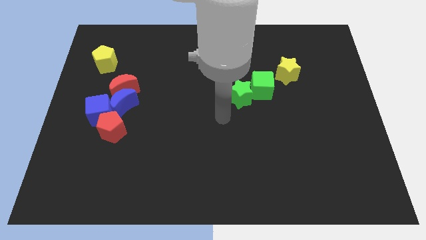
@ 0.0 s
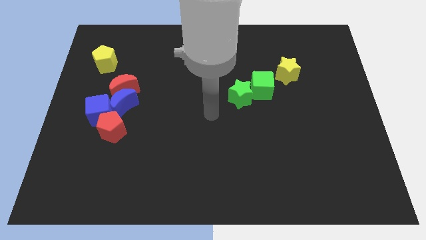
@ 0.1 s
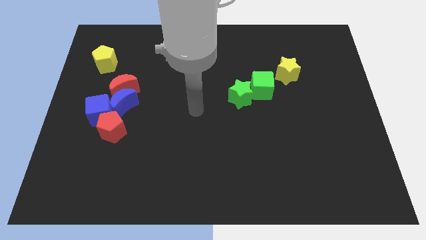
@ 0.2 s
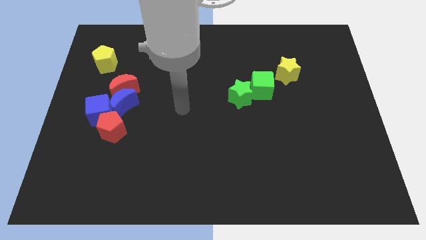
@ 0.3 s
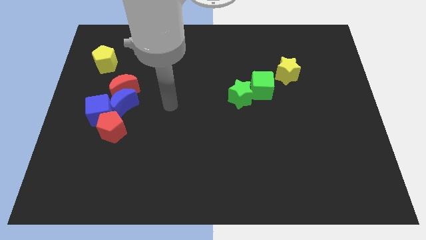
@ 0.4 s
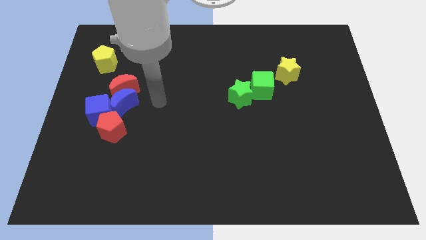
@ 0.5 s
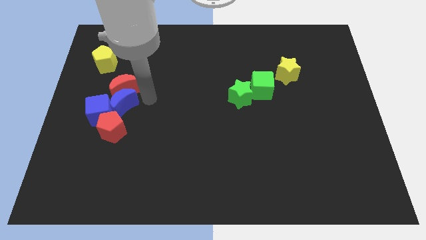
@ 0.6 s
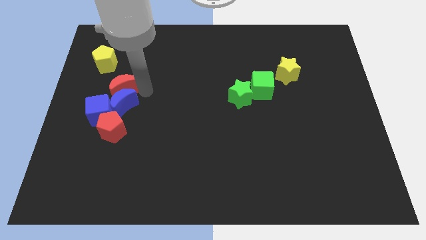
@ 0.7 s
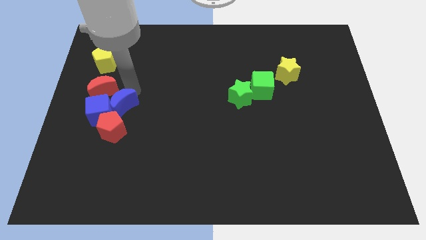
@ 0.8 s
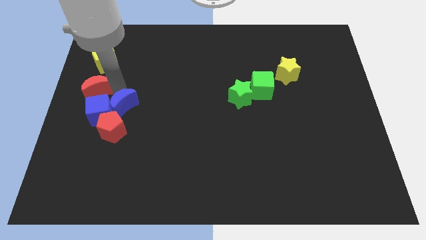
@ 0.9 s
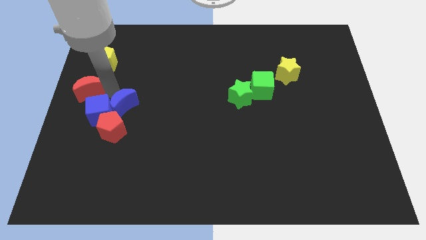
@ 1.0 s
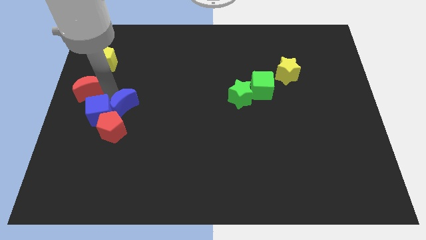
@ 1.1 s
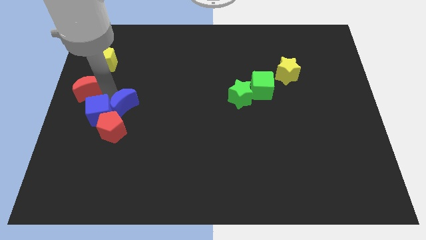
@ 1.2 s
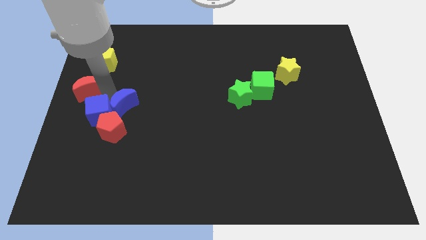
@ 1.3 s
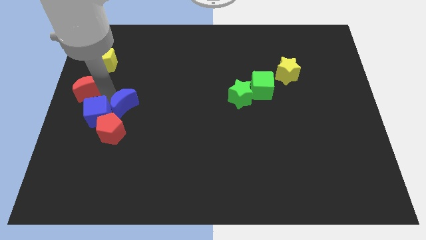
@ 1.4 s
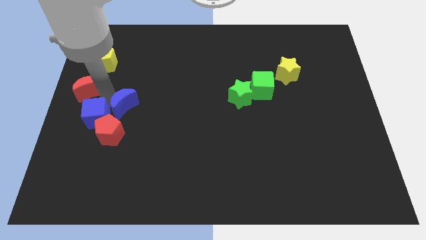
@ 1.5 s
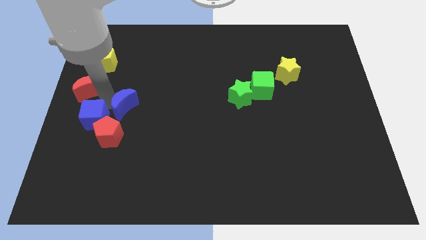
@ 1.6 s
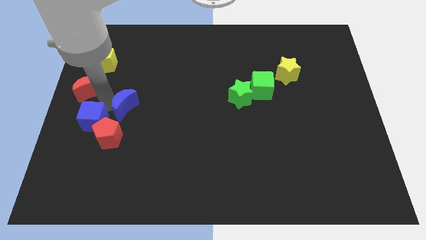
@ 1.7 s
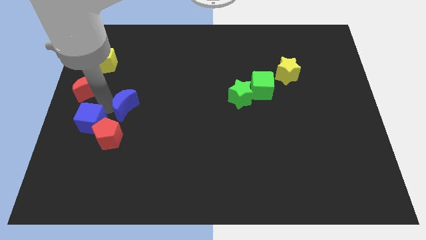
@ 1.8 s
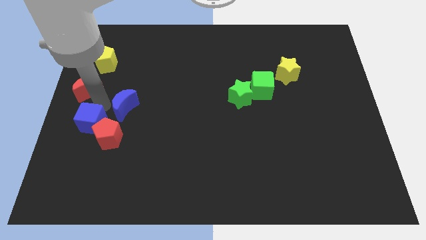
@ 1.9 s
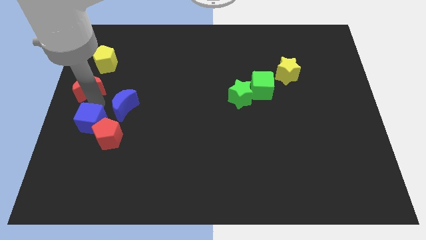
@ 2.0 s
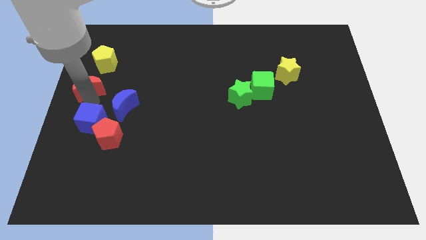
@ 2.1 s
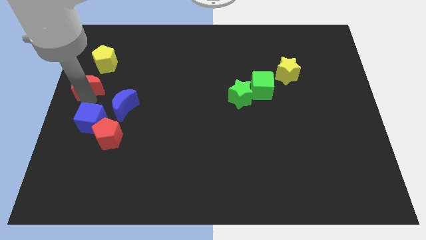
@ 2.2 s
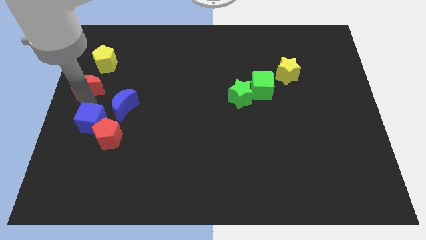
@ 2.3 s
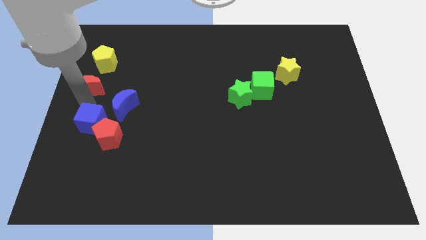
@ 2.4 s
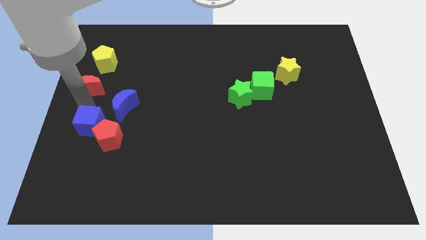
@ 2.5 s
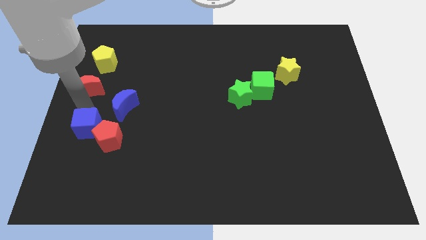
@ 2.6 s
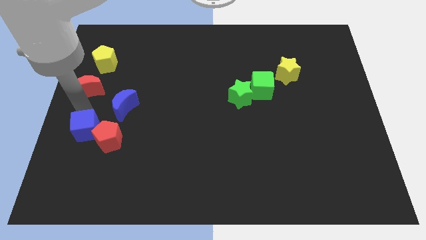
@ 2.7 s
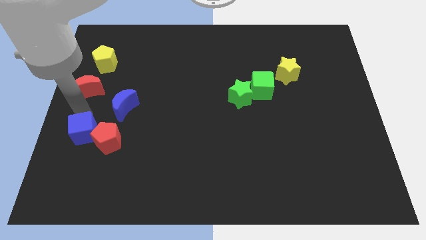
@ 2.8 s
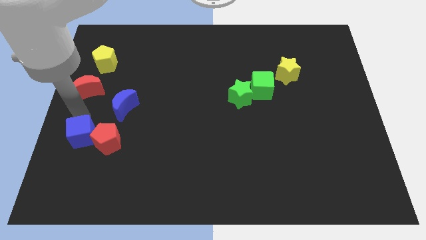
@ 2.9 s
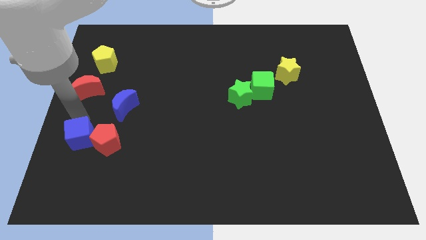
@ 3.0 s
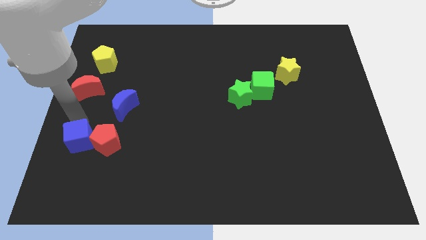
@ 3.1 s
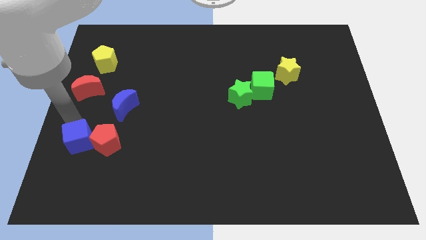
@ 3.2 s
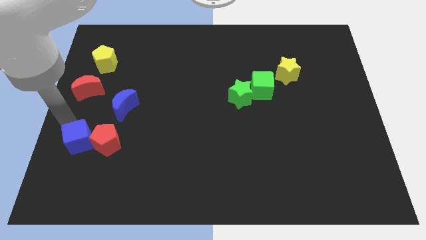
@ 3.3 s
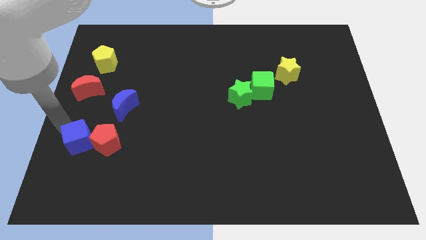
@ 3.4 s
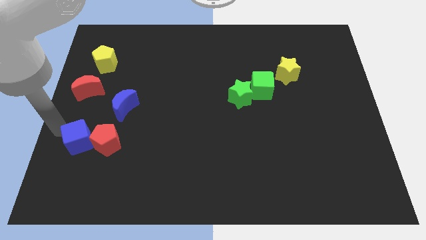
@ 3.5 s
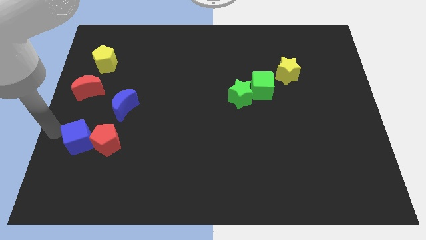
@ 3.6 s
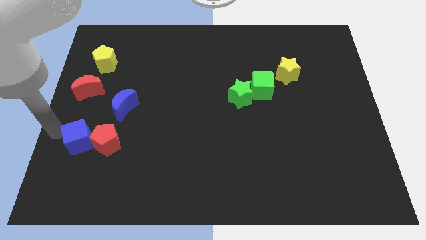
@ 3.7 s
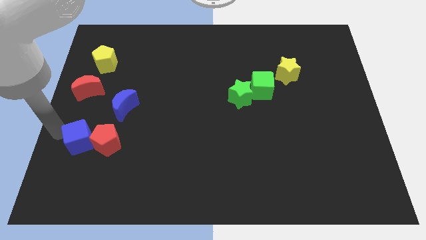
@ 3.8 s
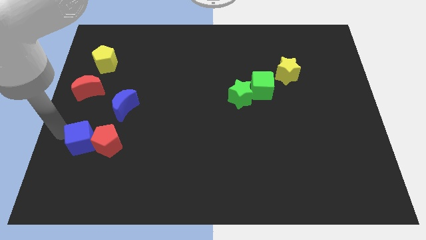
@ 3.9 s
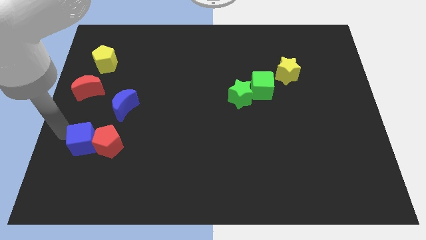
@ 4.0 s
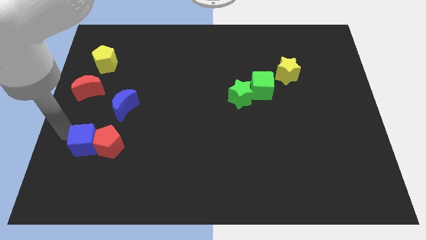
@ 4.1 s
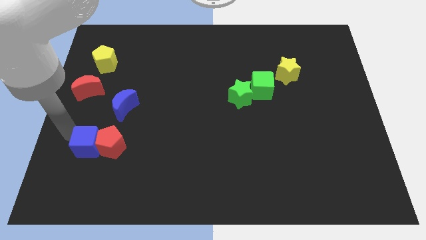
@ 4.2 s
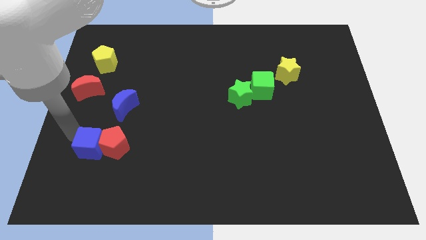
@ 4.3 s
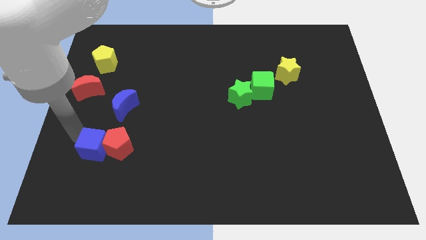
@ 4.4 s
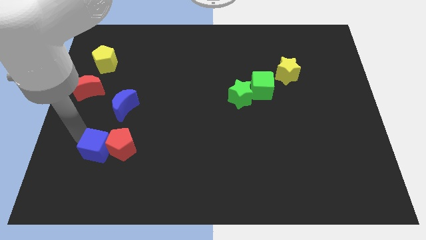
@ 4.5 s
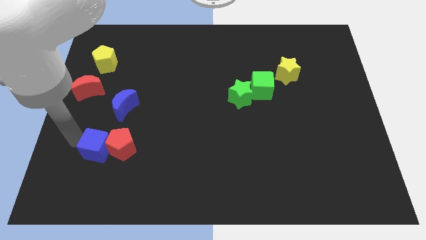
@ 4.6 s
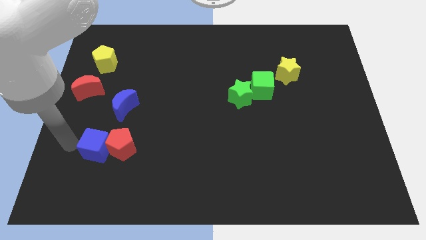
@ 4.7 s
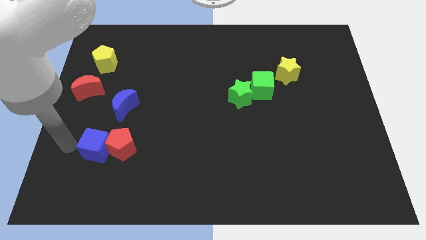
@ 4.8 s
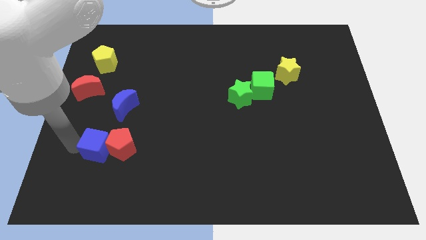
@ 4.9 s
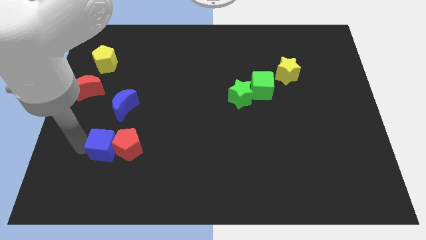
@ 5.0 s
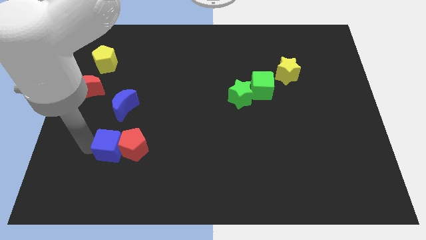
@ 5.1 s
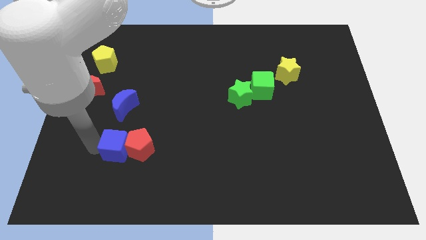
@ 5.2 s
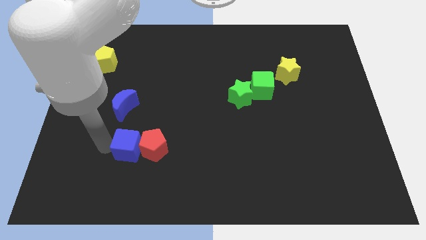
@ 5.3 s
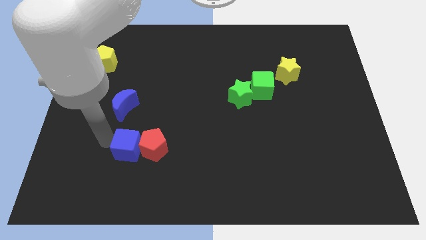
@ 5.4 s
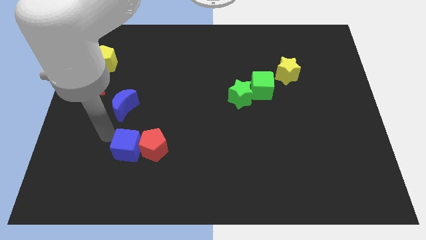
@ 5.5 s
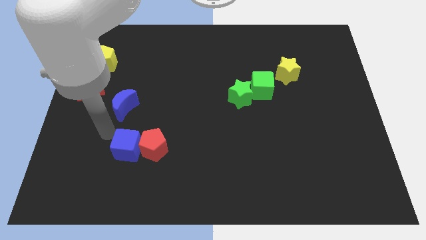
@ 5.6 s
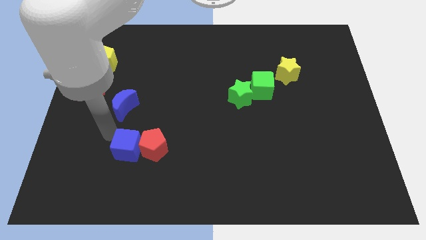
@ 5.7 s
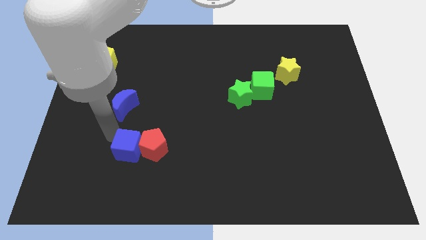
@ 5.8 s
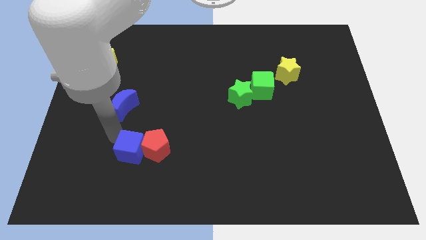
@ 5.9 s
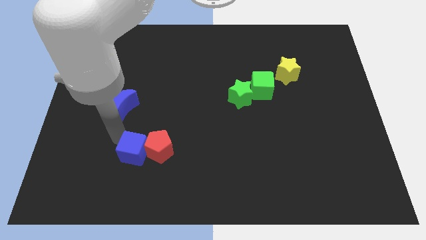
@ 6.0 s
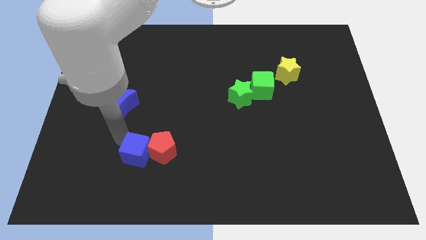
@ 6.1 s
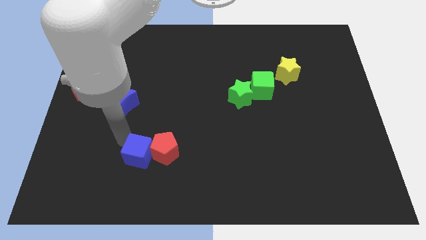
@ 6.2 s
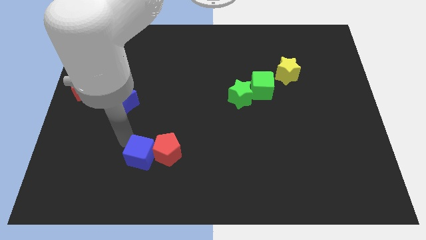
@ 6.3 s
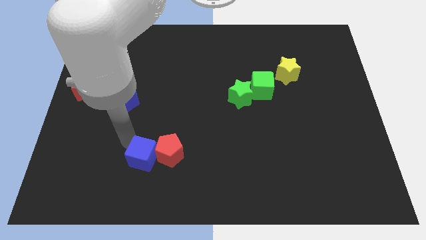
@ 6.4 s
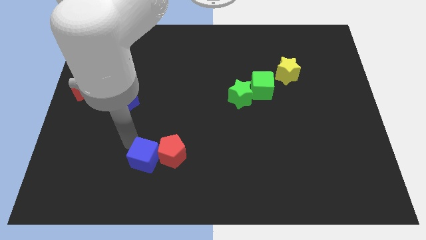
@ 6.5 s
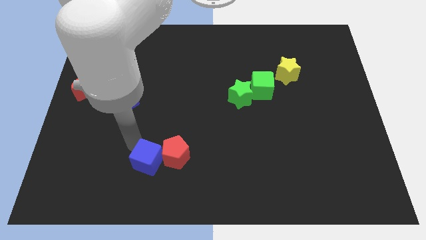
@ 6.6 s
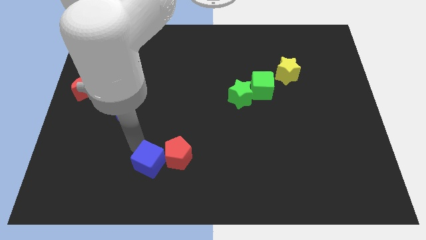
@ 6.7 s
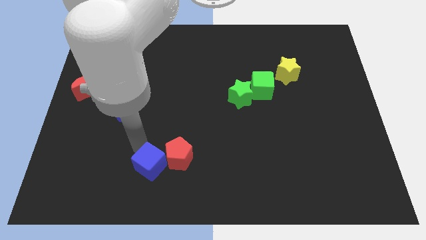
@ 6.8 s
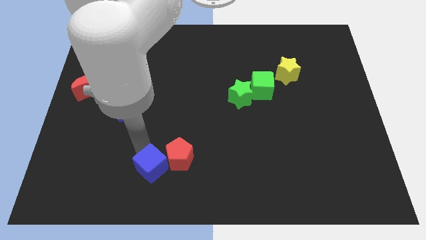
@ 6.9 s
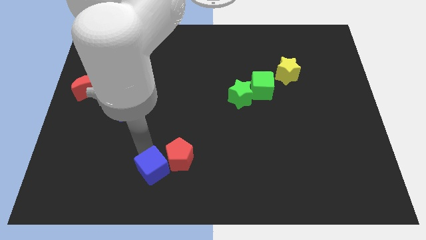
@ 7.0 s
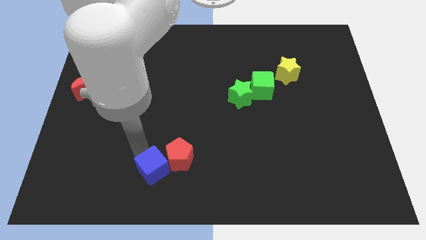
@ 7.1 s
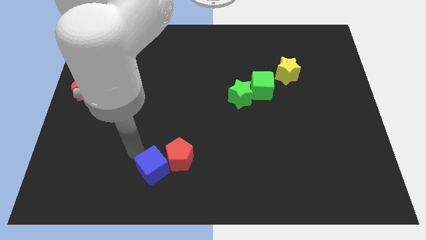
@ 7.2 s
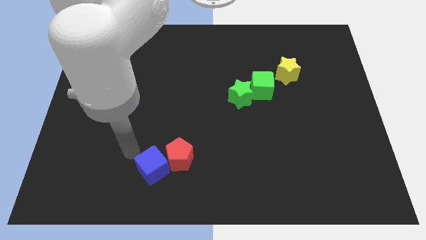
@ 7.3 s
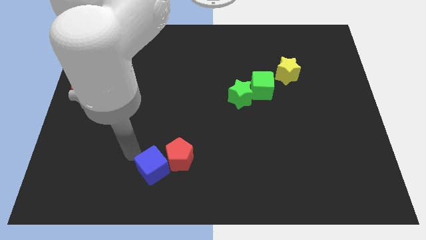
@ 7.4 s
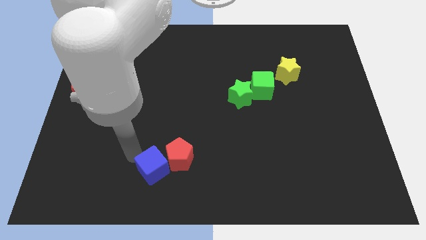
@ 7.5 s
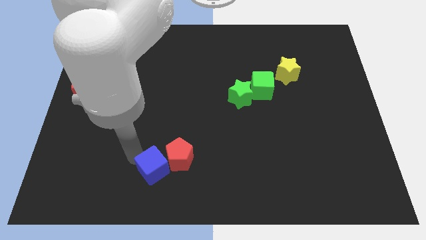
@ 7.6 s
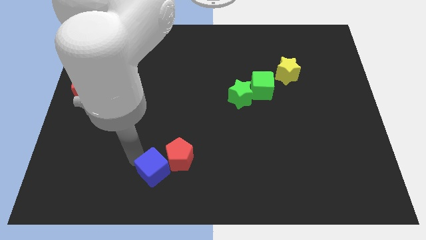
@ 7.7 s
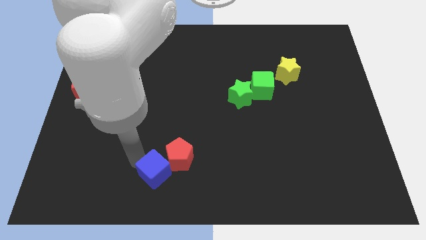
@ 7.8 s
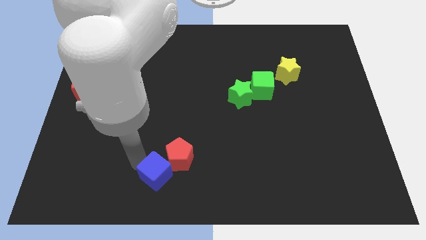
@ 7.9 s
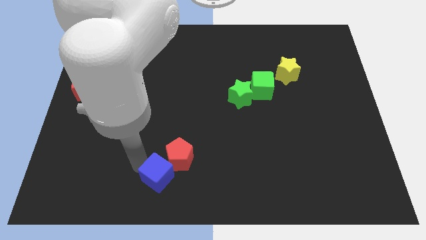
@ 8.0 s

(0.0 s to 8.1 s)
put the blue cube to the bottom
